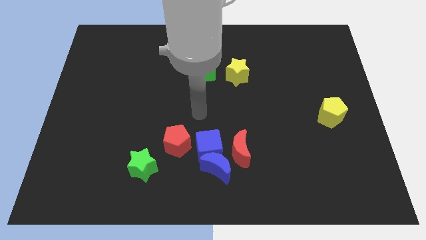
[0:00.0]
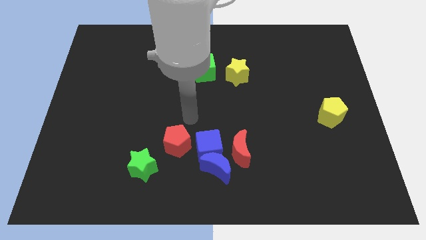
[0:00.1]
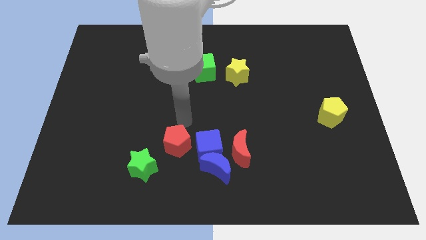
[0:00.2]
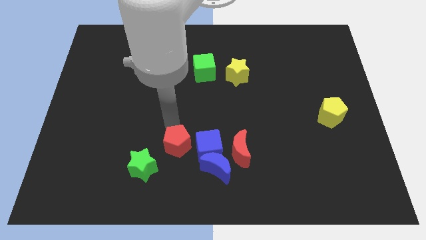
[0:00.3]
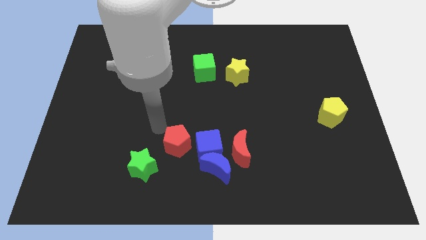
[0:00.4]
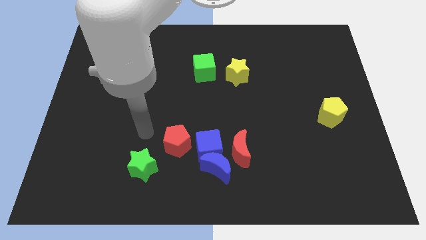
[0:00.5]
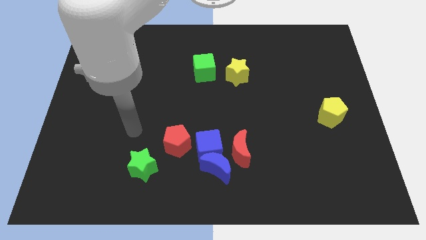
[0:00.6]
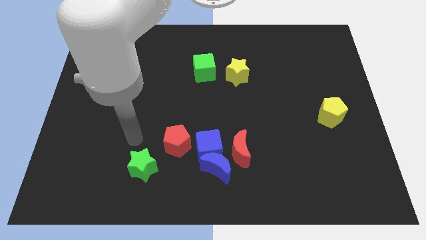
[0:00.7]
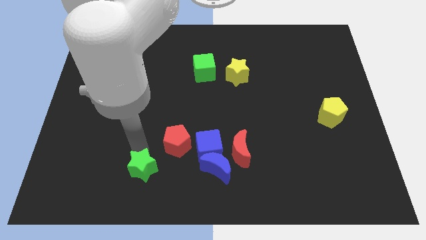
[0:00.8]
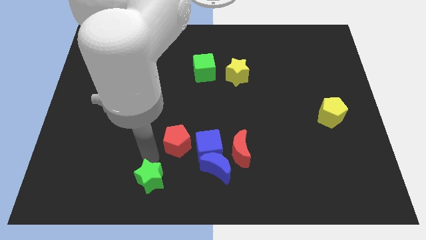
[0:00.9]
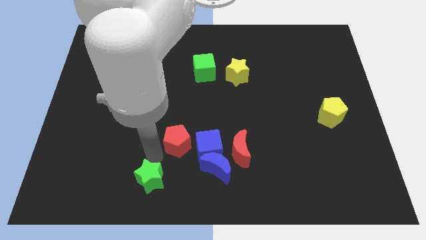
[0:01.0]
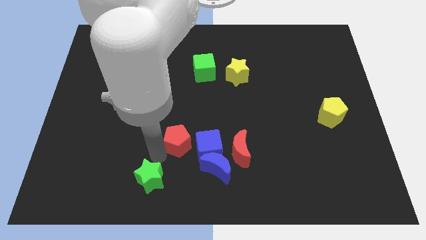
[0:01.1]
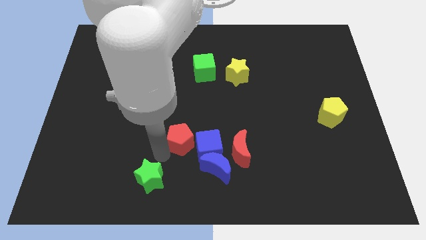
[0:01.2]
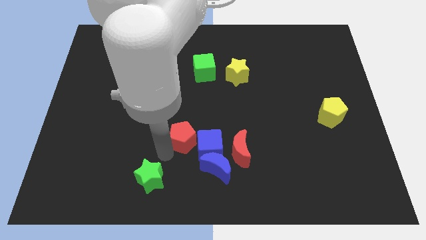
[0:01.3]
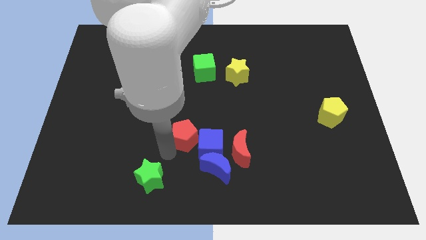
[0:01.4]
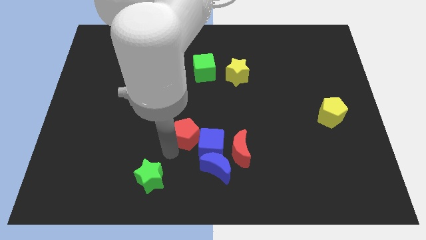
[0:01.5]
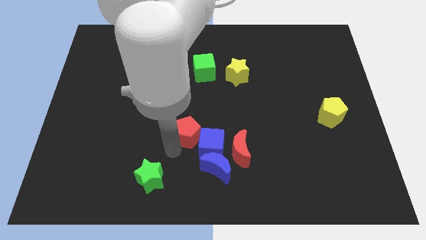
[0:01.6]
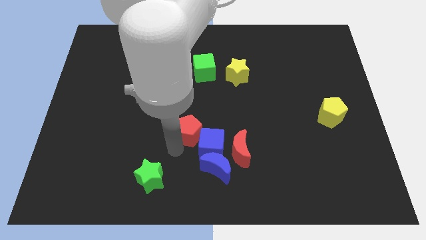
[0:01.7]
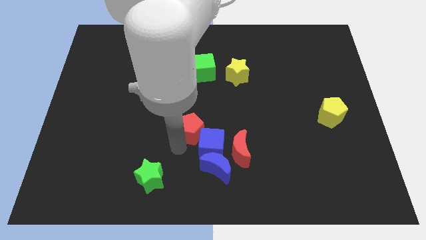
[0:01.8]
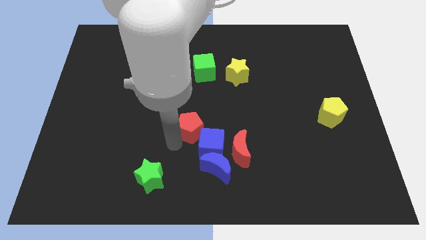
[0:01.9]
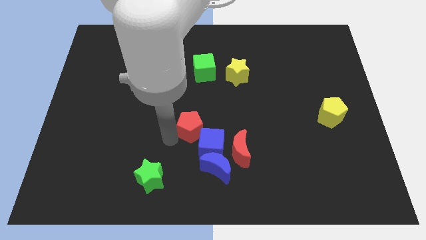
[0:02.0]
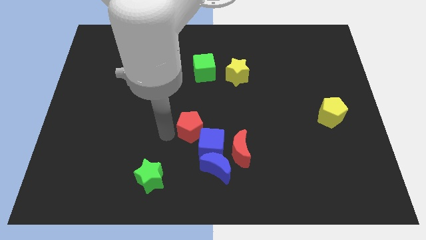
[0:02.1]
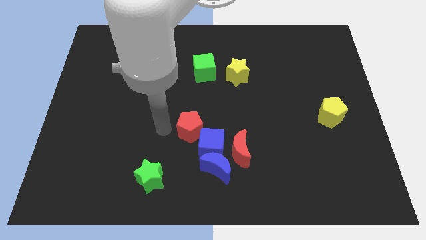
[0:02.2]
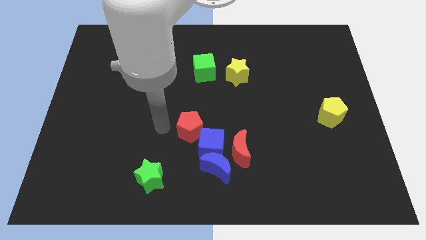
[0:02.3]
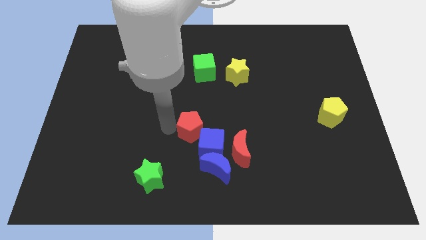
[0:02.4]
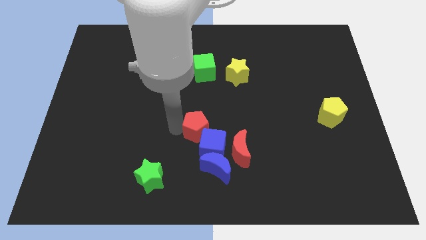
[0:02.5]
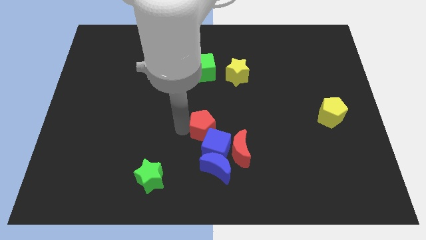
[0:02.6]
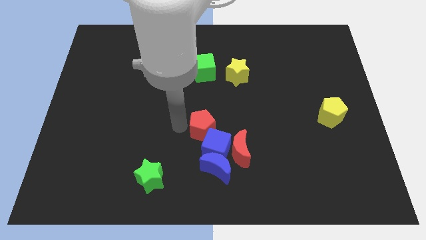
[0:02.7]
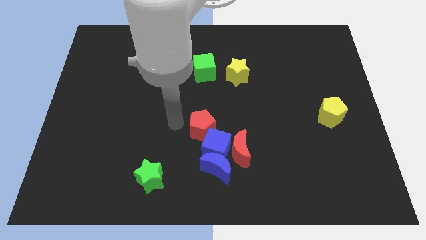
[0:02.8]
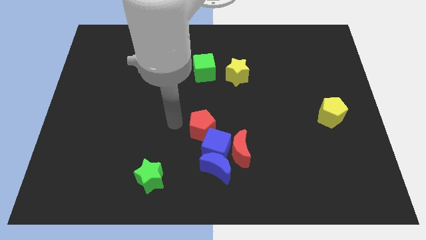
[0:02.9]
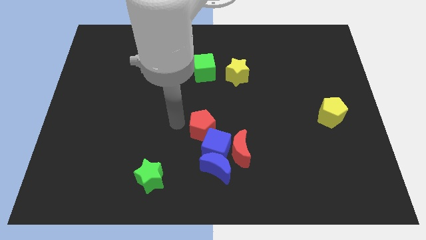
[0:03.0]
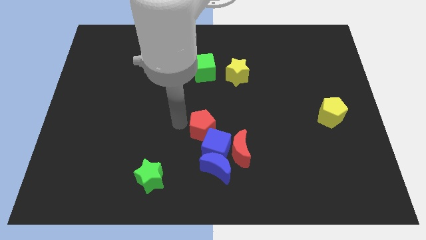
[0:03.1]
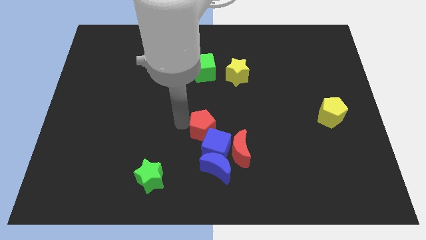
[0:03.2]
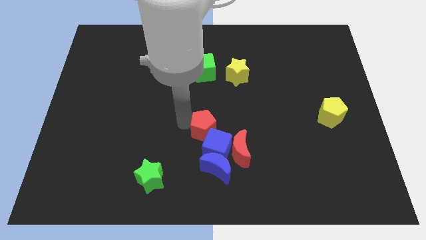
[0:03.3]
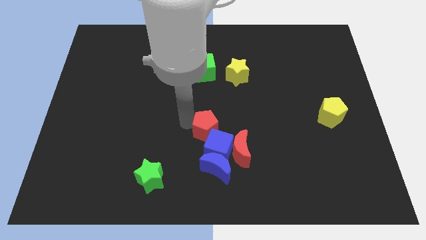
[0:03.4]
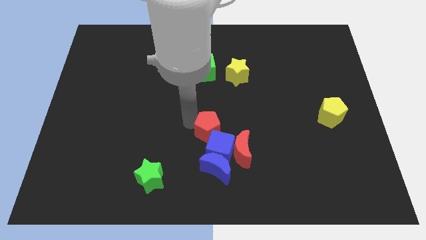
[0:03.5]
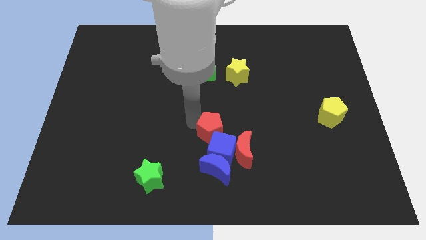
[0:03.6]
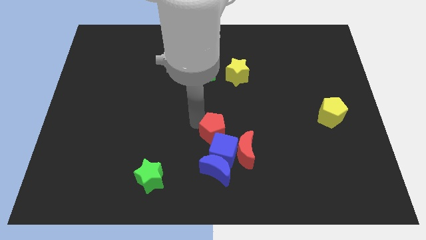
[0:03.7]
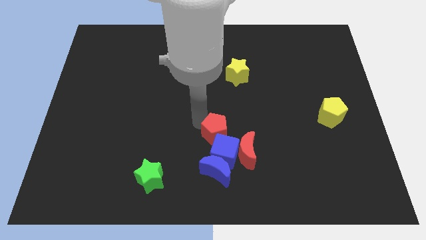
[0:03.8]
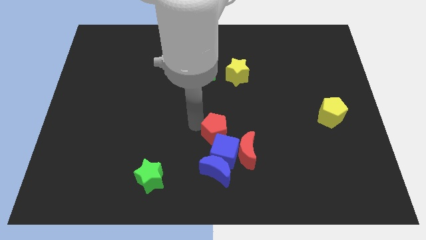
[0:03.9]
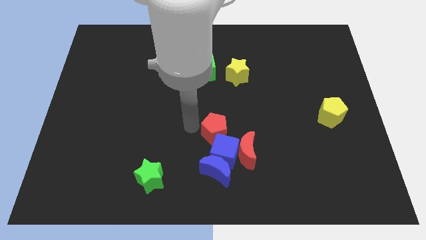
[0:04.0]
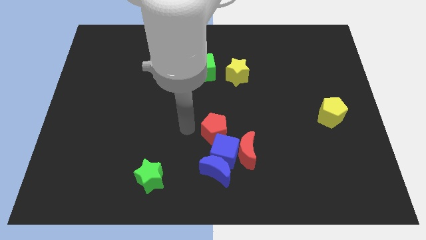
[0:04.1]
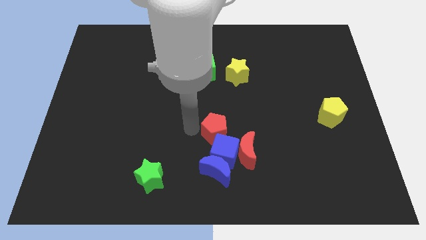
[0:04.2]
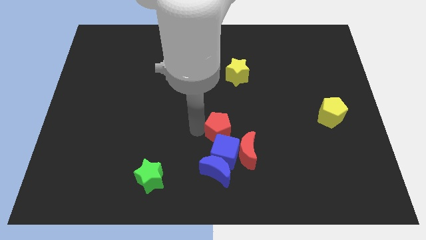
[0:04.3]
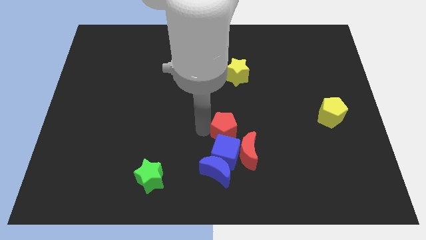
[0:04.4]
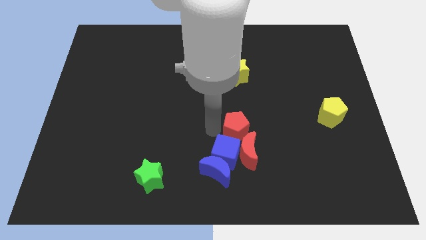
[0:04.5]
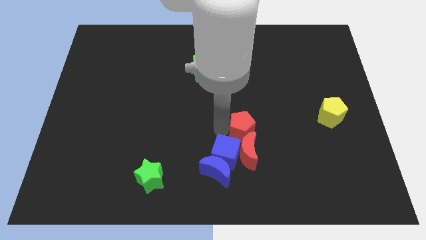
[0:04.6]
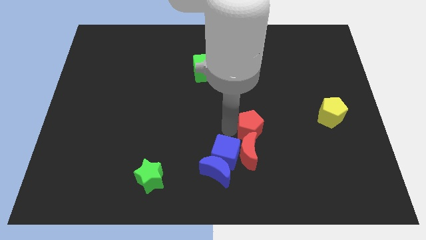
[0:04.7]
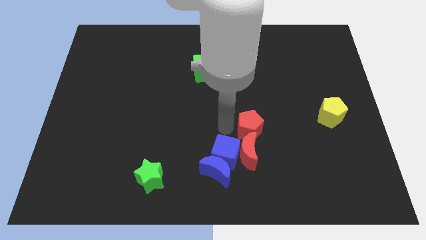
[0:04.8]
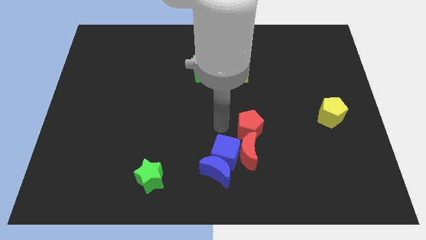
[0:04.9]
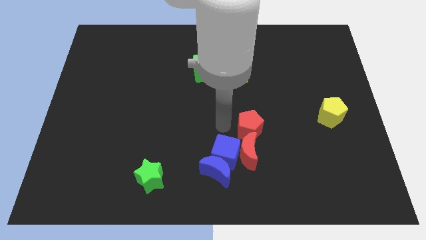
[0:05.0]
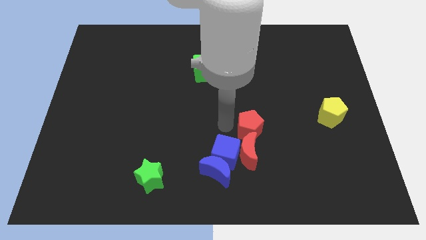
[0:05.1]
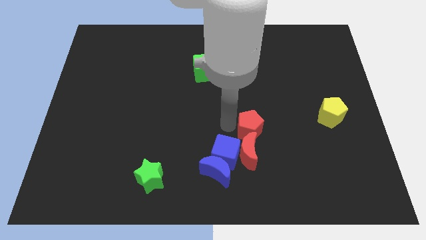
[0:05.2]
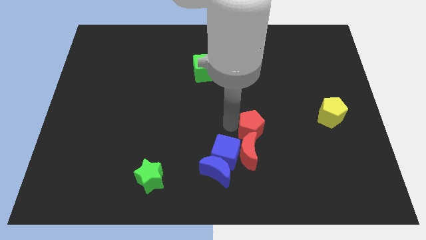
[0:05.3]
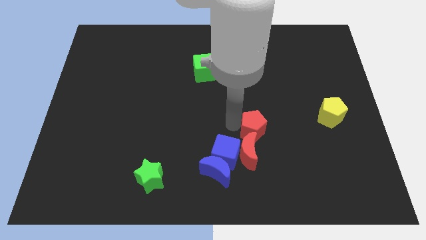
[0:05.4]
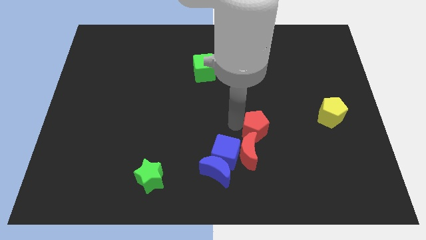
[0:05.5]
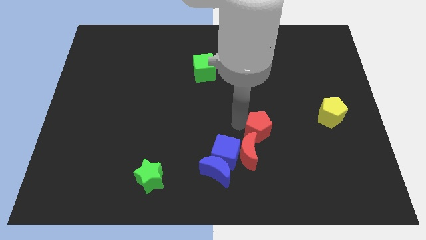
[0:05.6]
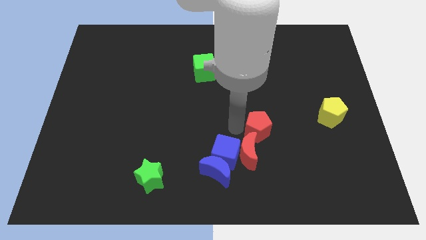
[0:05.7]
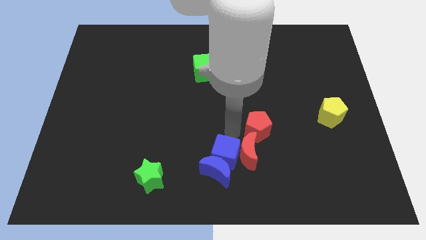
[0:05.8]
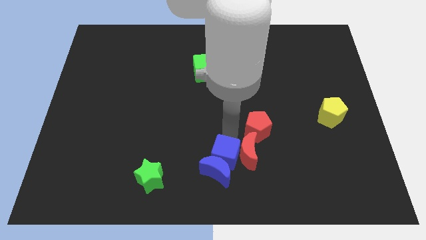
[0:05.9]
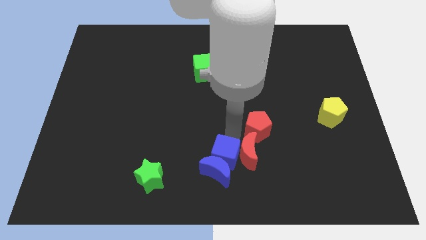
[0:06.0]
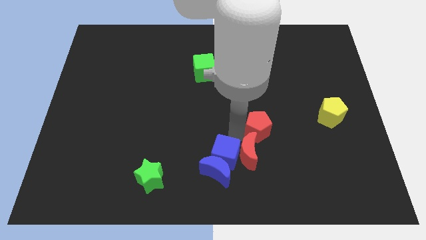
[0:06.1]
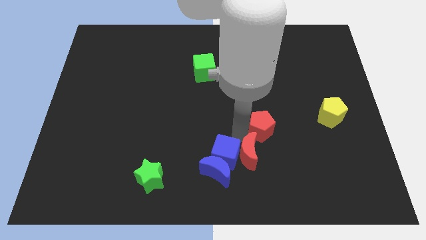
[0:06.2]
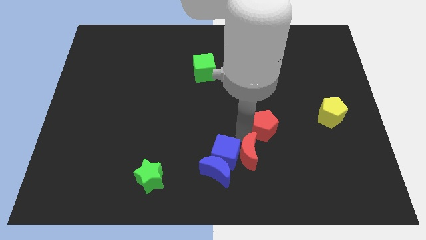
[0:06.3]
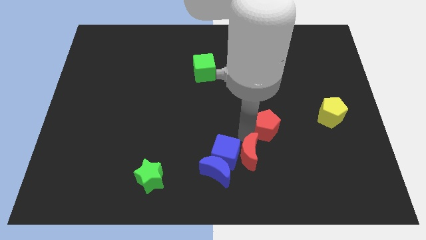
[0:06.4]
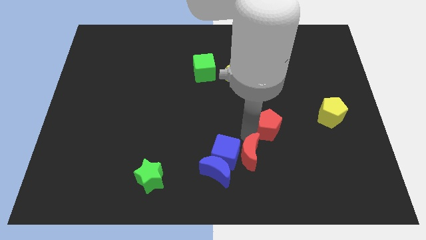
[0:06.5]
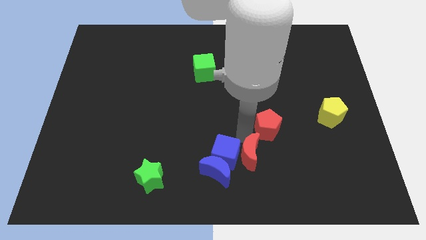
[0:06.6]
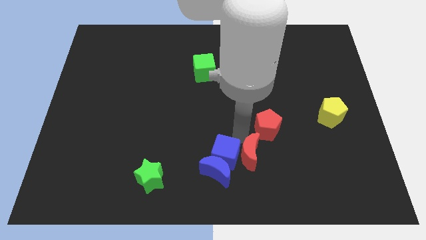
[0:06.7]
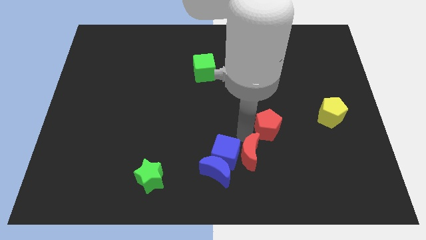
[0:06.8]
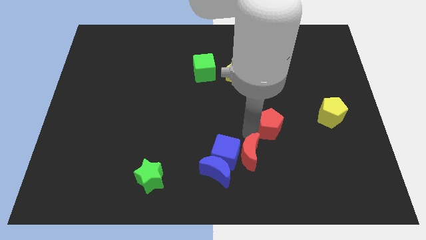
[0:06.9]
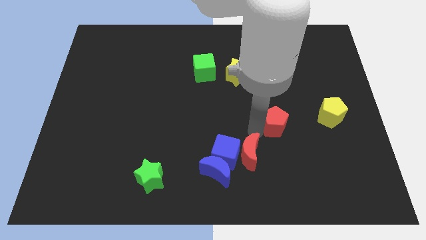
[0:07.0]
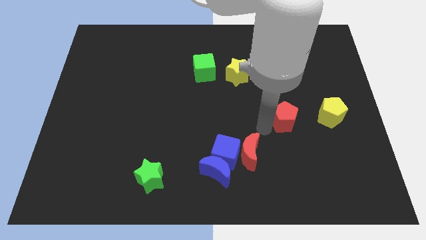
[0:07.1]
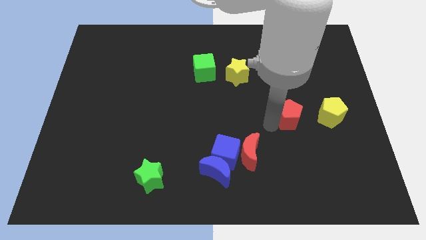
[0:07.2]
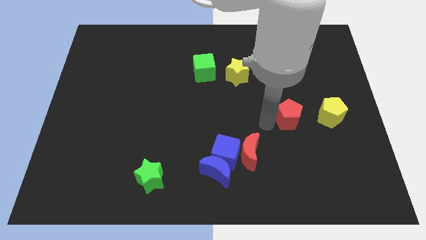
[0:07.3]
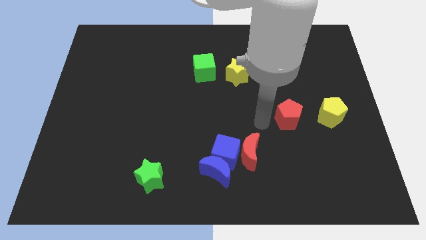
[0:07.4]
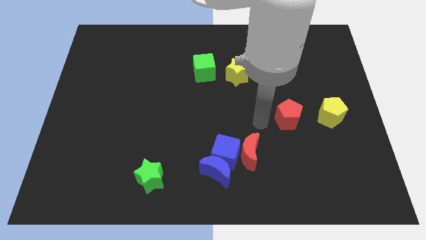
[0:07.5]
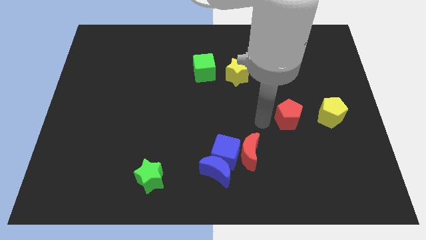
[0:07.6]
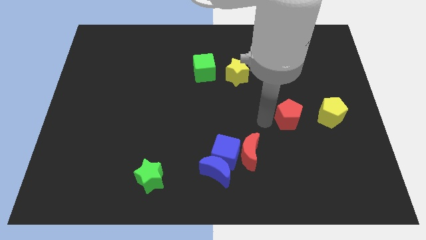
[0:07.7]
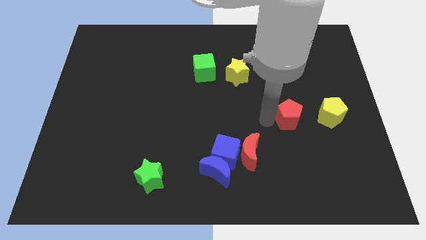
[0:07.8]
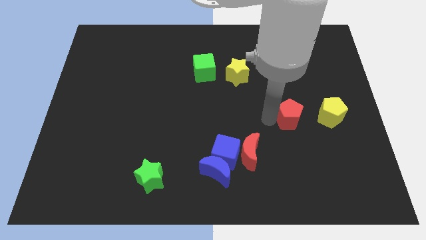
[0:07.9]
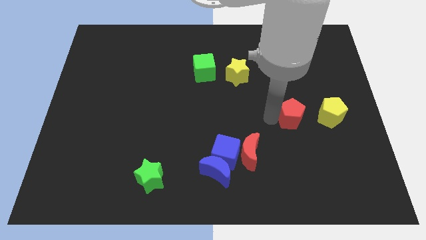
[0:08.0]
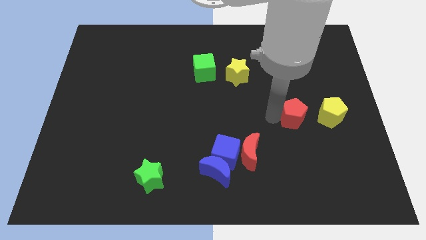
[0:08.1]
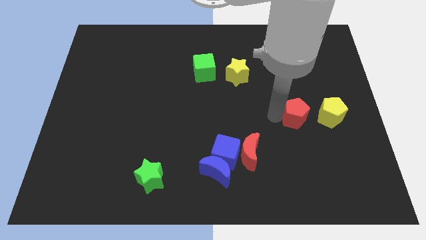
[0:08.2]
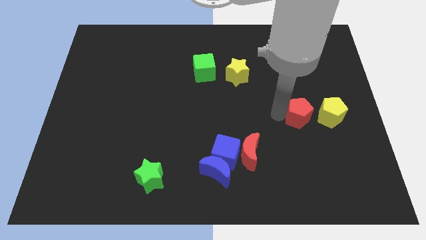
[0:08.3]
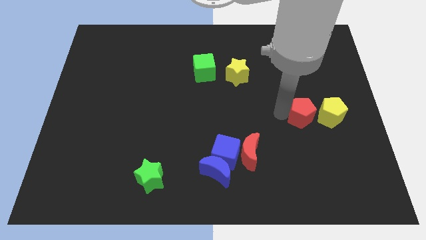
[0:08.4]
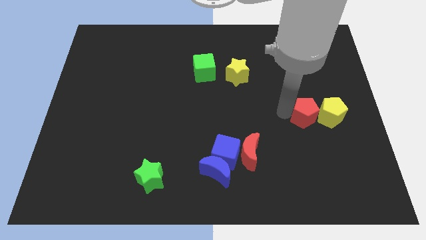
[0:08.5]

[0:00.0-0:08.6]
move the red pentagon towards the yellow pentagon
